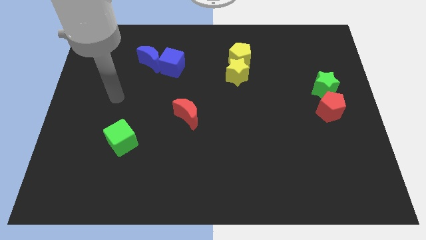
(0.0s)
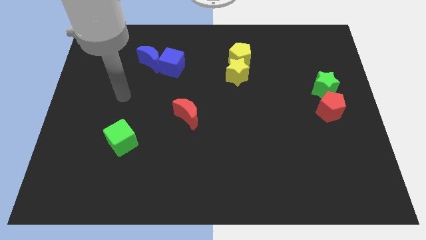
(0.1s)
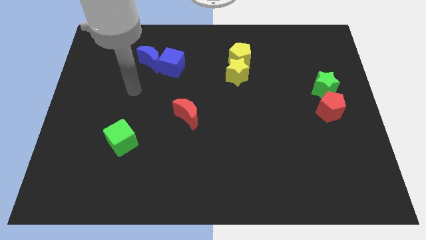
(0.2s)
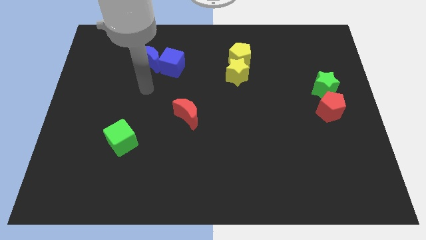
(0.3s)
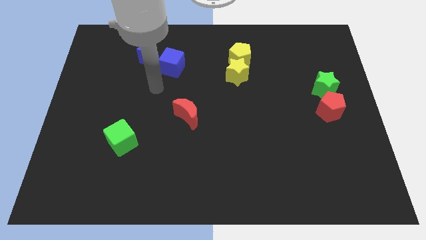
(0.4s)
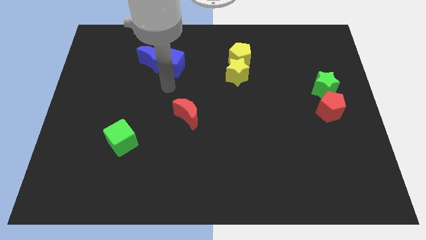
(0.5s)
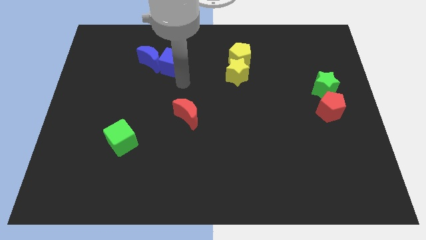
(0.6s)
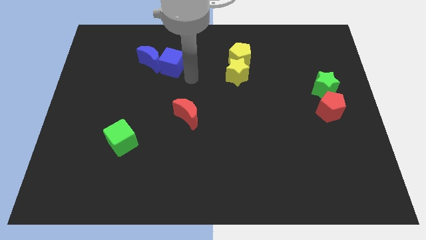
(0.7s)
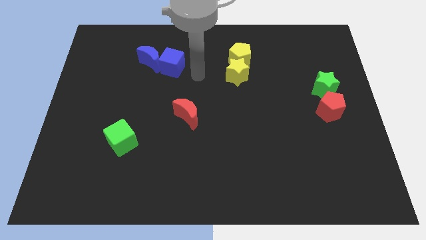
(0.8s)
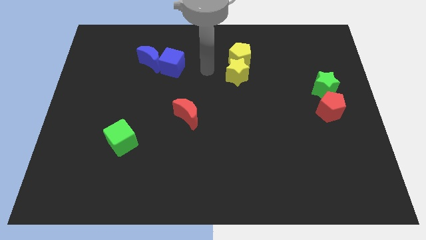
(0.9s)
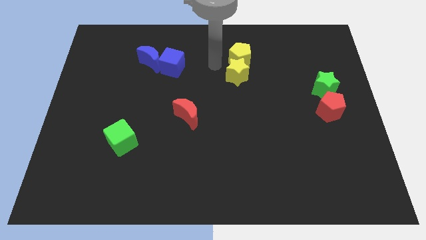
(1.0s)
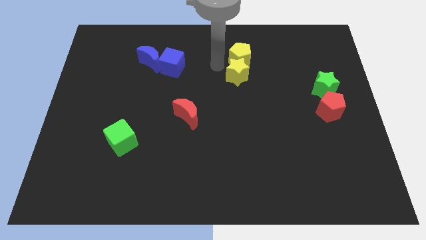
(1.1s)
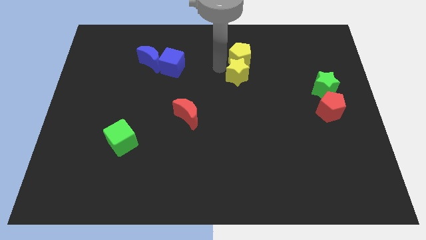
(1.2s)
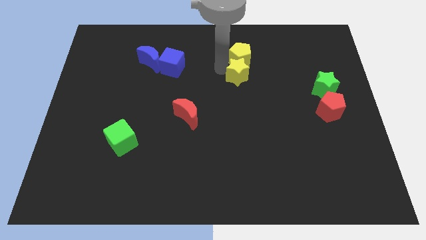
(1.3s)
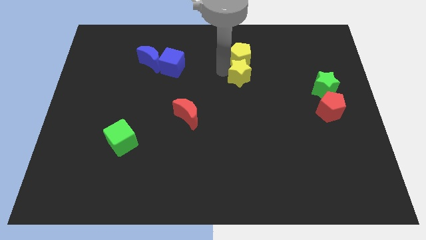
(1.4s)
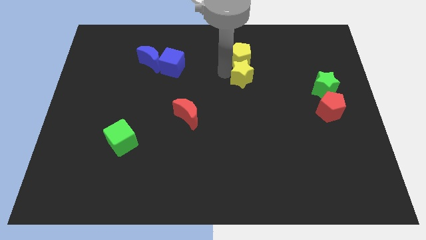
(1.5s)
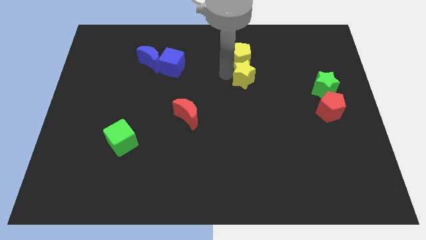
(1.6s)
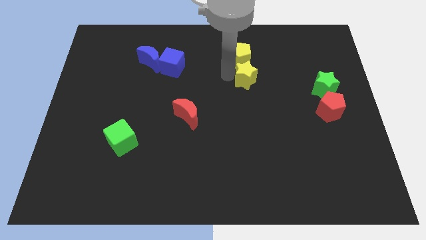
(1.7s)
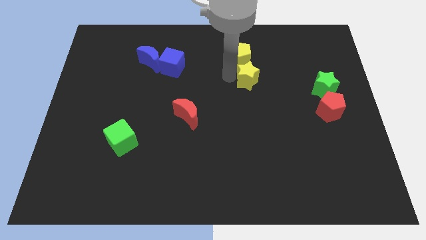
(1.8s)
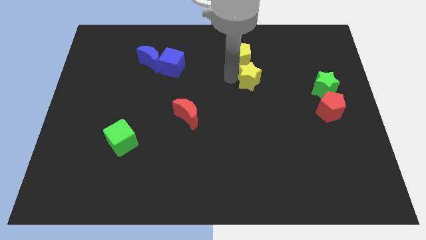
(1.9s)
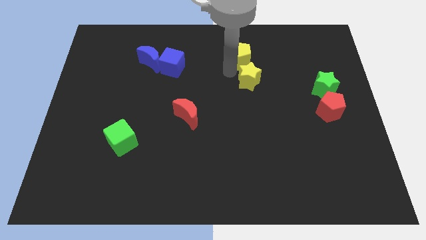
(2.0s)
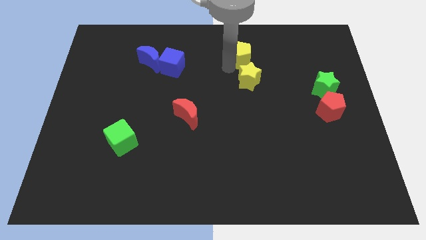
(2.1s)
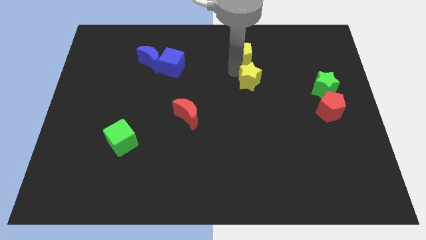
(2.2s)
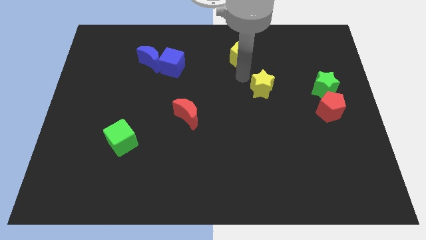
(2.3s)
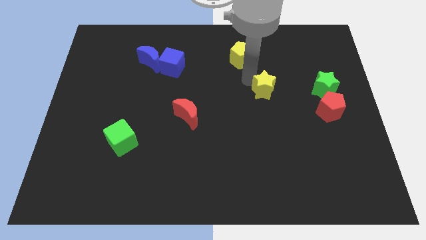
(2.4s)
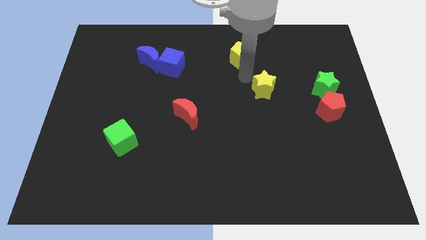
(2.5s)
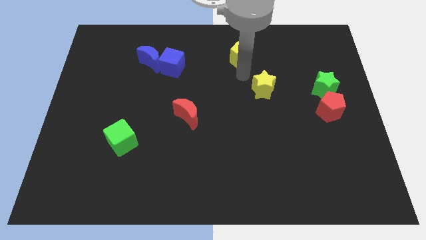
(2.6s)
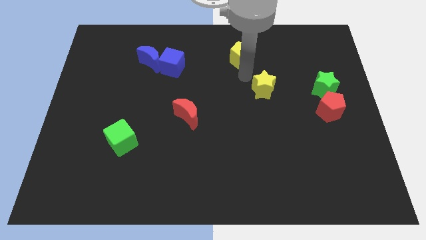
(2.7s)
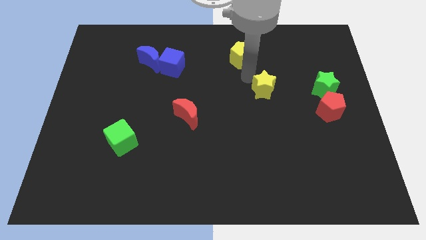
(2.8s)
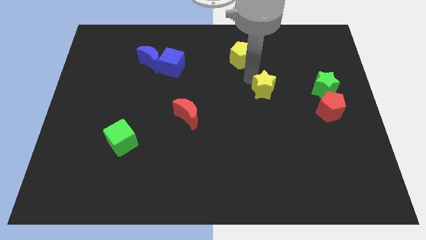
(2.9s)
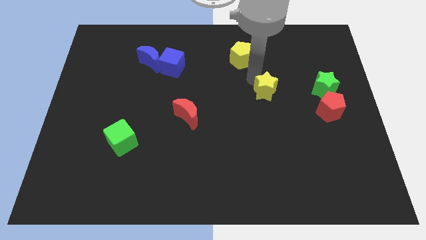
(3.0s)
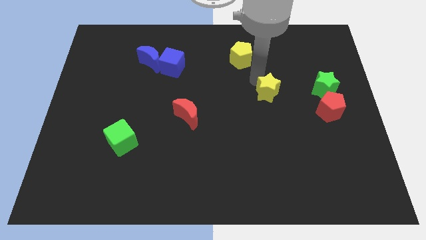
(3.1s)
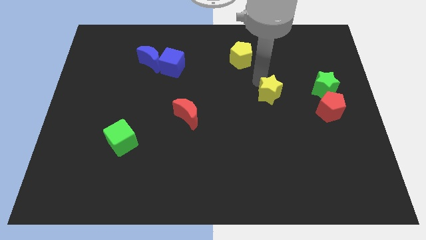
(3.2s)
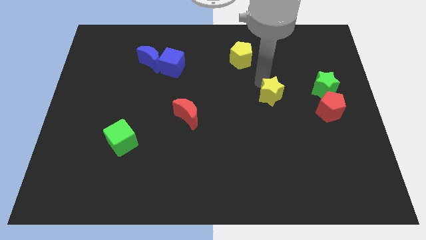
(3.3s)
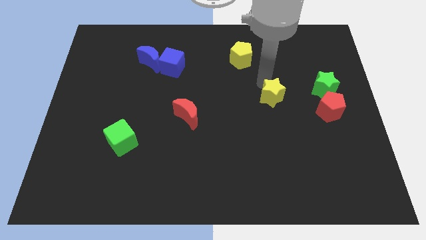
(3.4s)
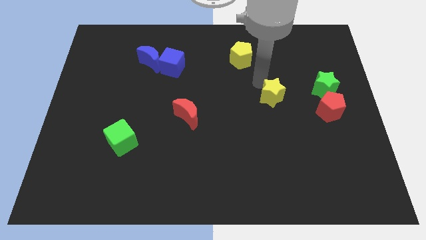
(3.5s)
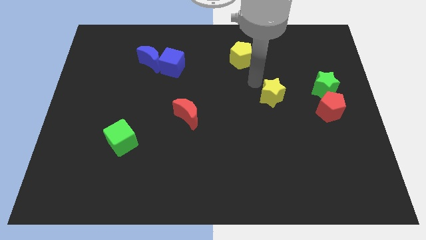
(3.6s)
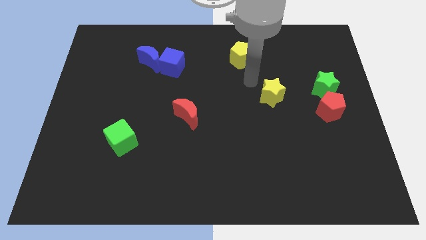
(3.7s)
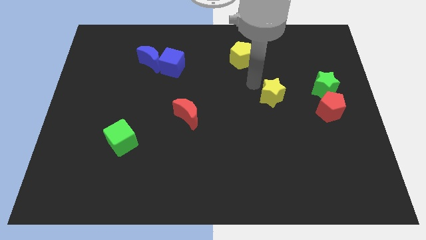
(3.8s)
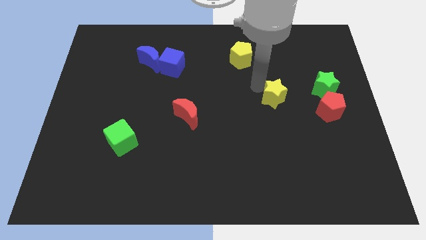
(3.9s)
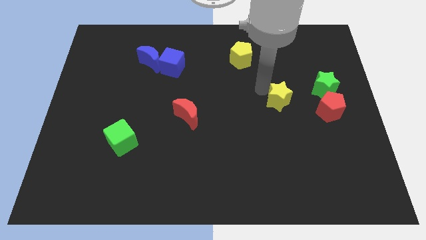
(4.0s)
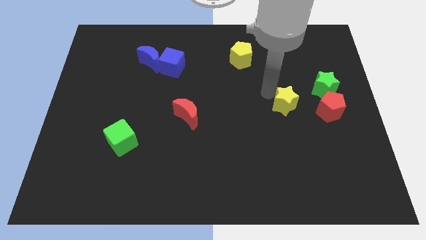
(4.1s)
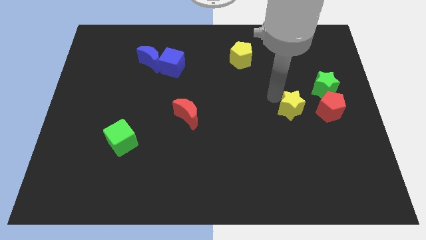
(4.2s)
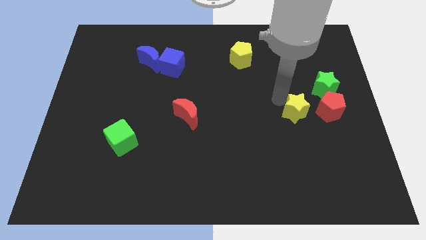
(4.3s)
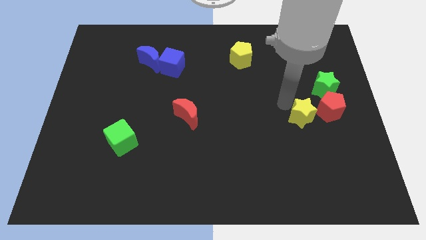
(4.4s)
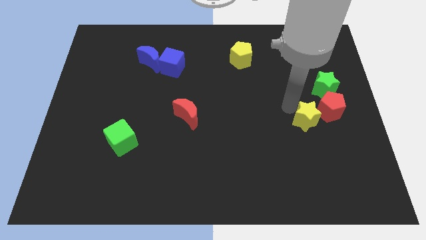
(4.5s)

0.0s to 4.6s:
slide the yellow star diagonally down and right

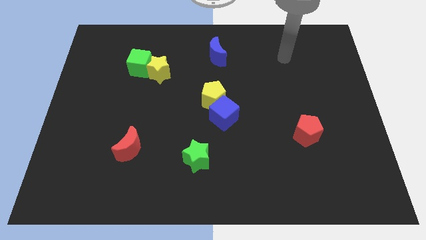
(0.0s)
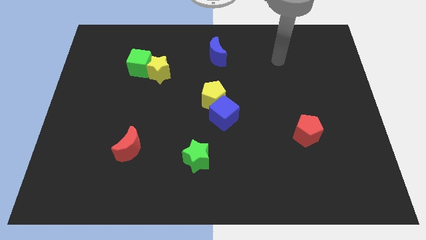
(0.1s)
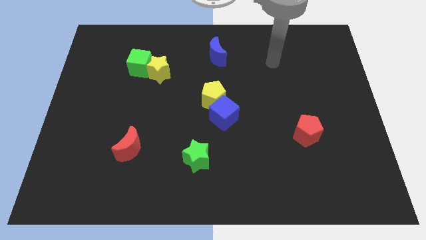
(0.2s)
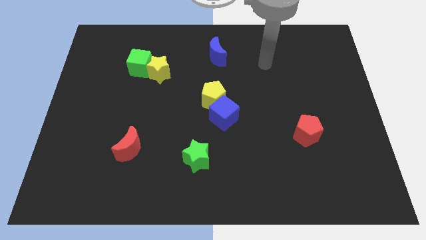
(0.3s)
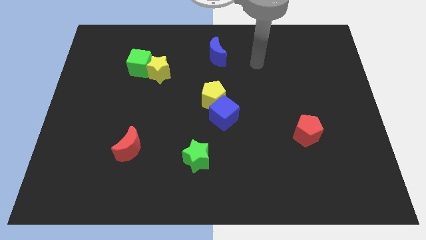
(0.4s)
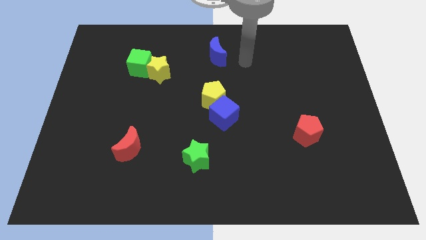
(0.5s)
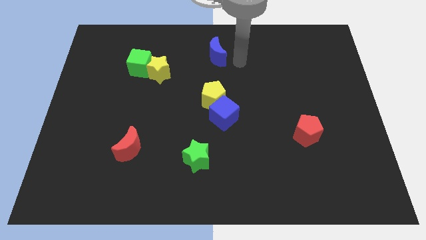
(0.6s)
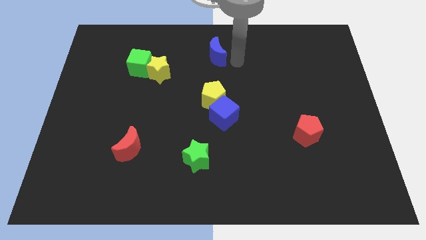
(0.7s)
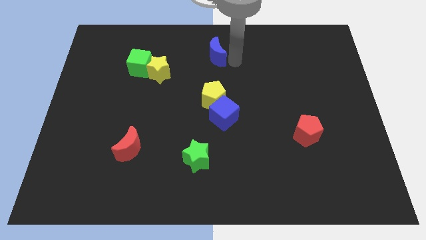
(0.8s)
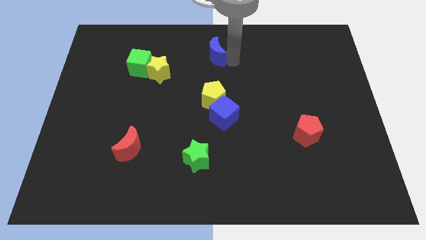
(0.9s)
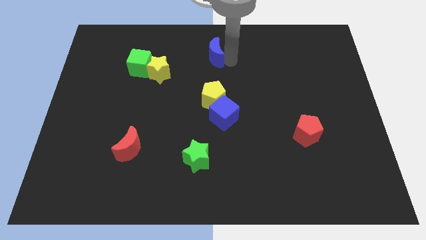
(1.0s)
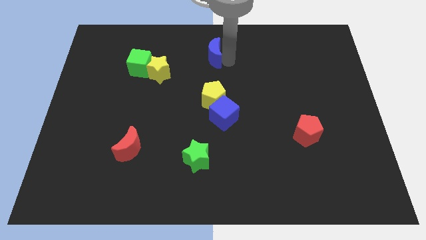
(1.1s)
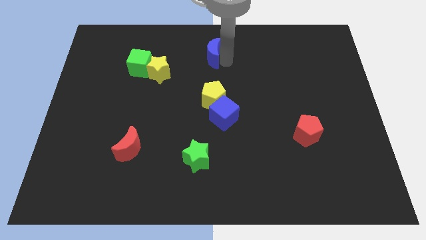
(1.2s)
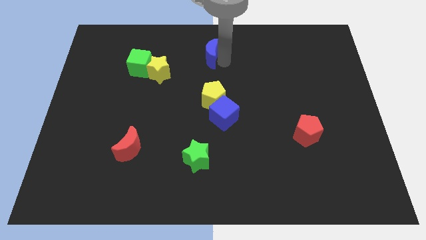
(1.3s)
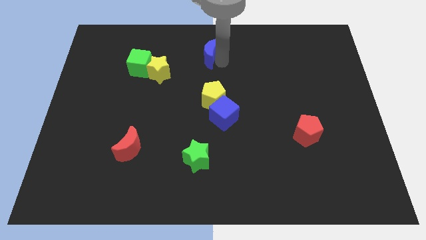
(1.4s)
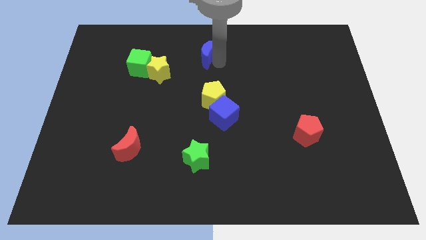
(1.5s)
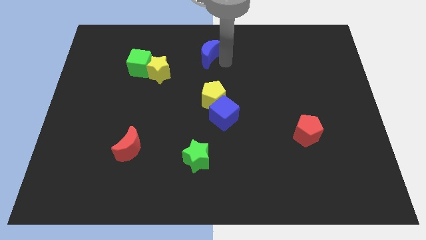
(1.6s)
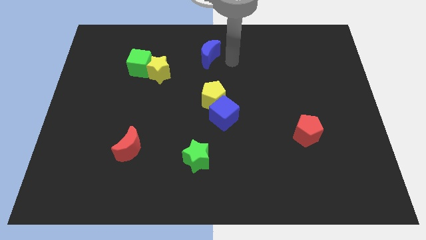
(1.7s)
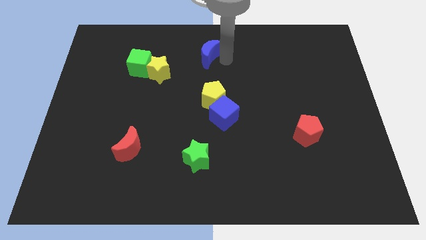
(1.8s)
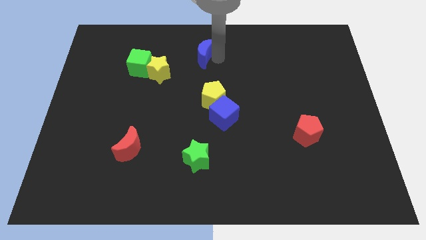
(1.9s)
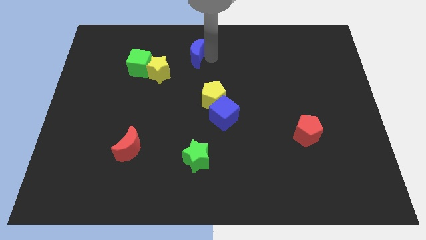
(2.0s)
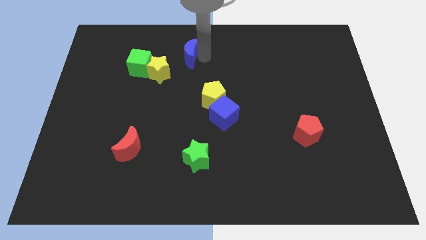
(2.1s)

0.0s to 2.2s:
push the blue moon a little to the left

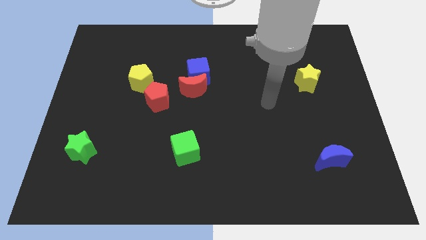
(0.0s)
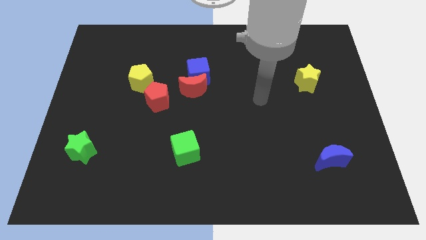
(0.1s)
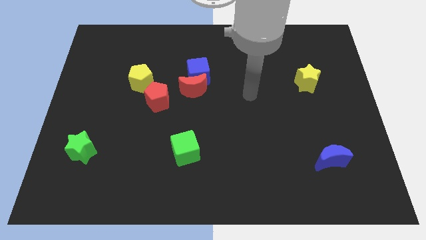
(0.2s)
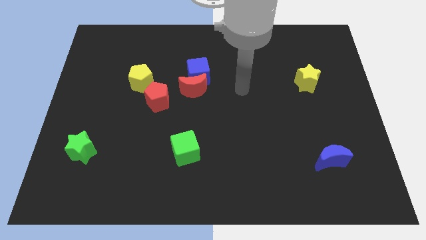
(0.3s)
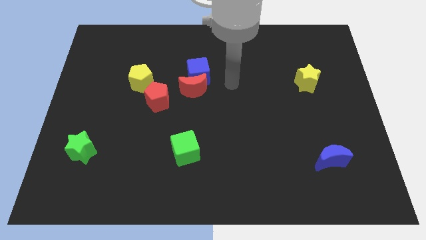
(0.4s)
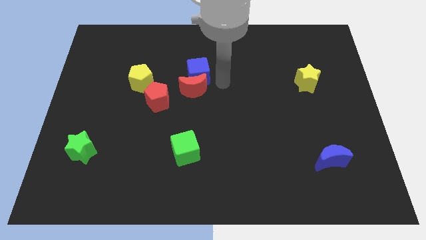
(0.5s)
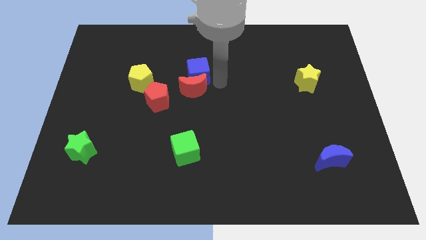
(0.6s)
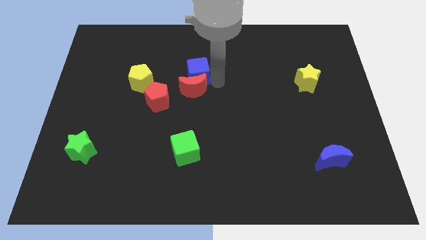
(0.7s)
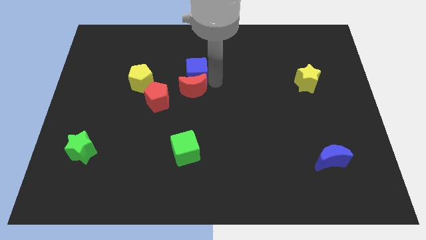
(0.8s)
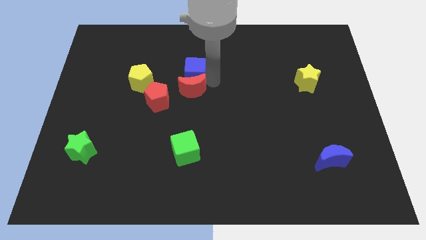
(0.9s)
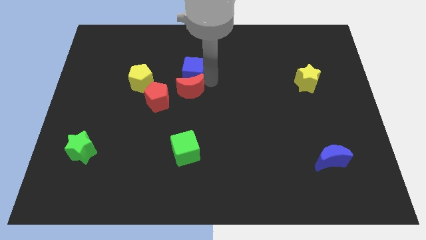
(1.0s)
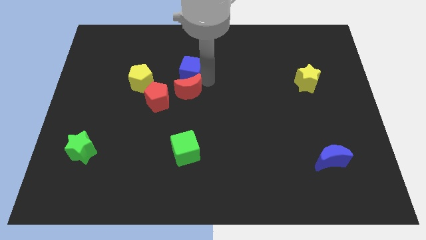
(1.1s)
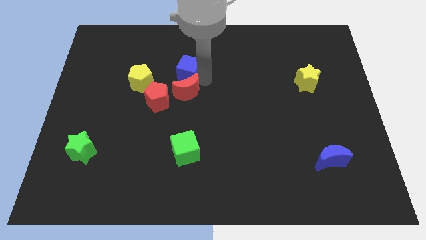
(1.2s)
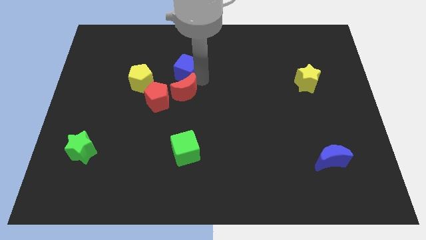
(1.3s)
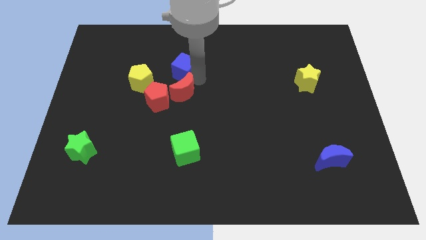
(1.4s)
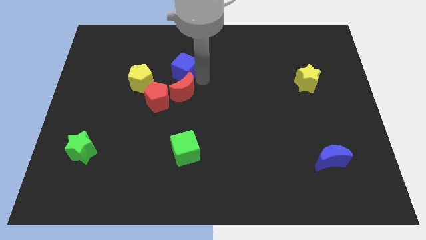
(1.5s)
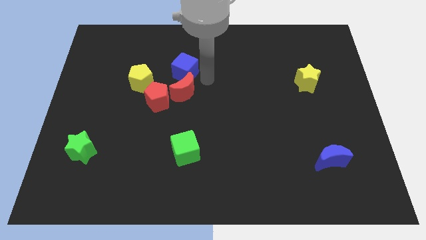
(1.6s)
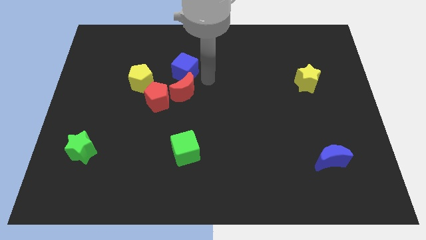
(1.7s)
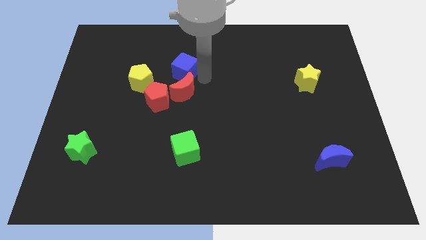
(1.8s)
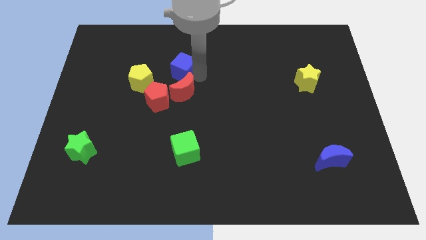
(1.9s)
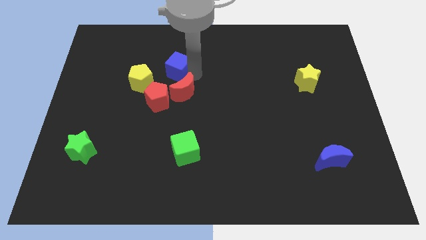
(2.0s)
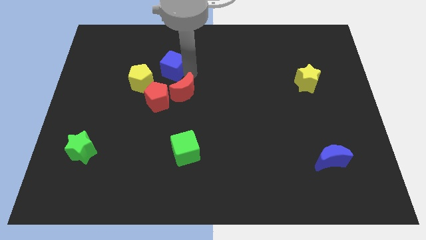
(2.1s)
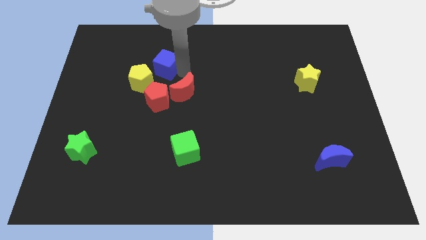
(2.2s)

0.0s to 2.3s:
push the blue cube a bit left
